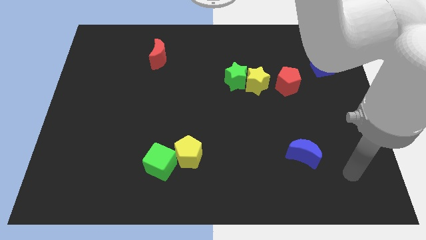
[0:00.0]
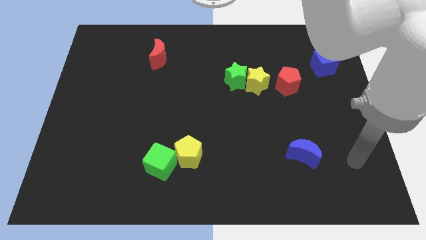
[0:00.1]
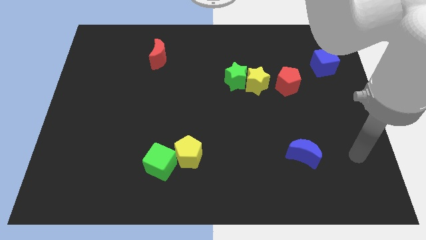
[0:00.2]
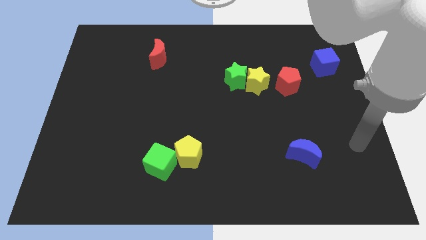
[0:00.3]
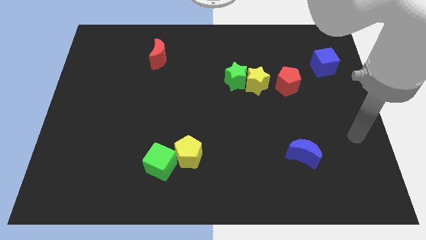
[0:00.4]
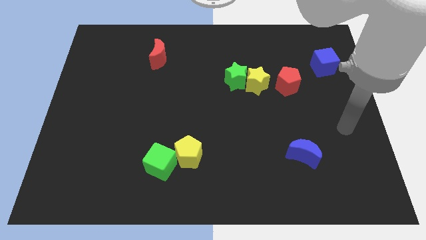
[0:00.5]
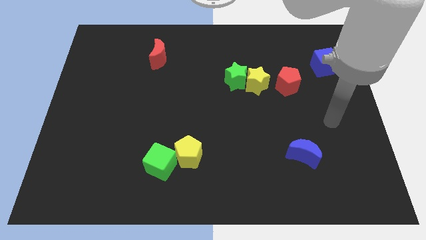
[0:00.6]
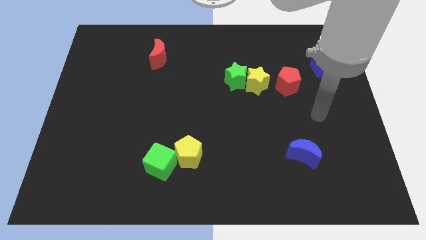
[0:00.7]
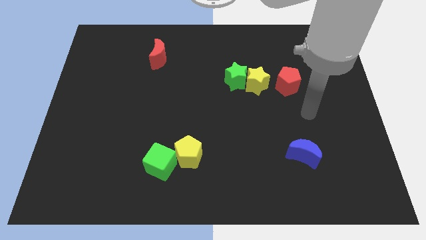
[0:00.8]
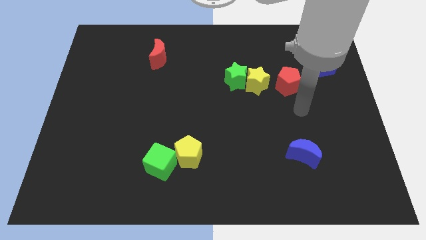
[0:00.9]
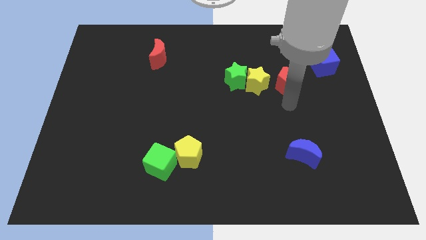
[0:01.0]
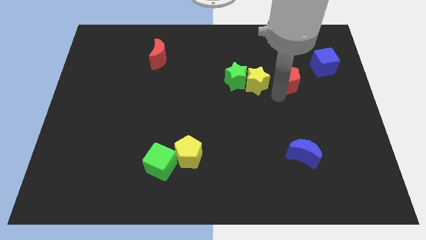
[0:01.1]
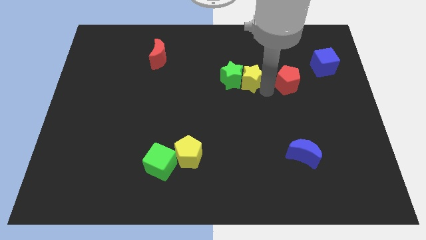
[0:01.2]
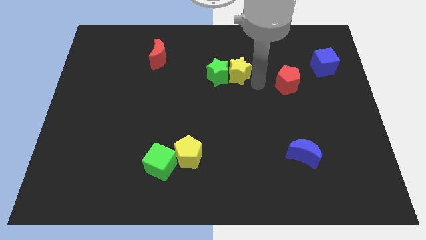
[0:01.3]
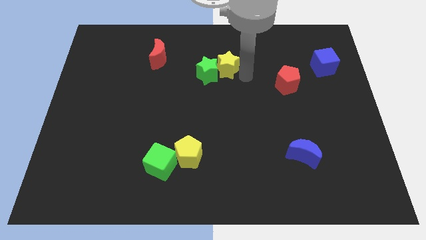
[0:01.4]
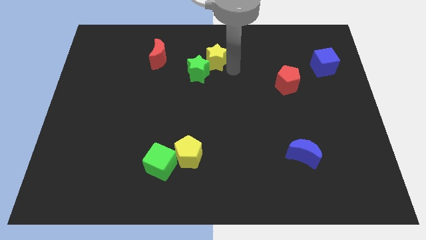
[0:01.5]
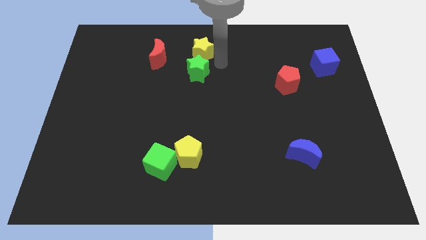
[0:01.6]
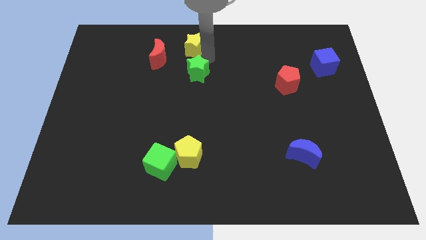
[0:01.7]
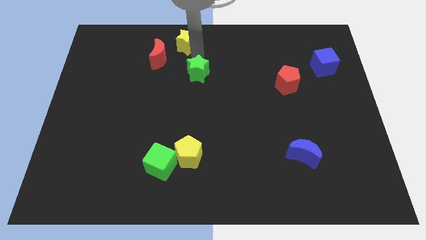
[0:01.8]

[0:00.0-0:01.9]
pull the green star apart from the yellow star

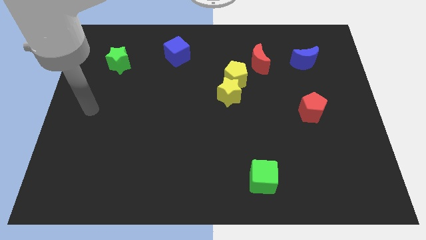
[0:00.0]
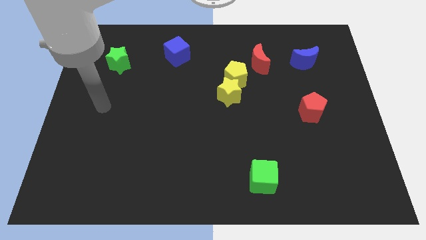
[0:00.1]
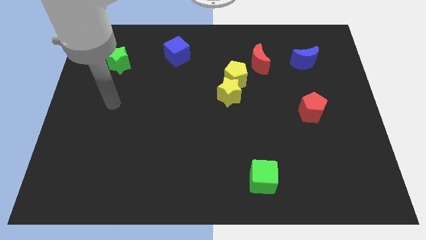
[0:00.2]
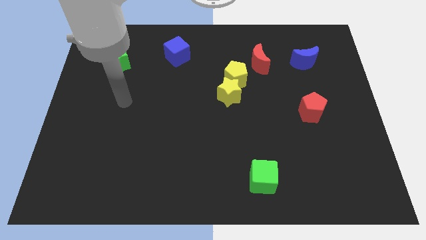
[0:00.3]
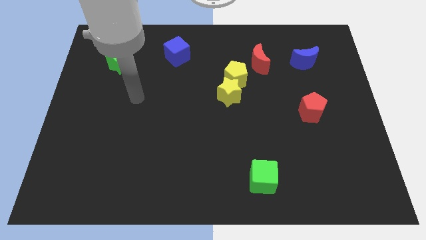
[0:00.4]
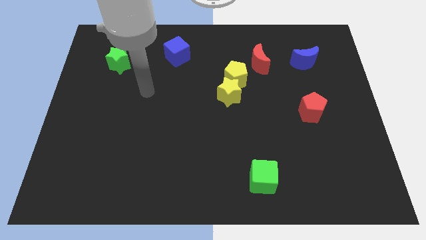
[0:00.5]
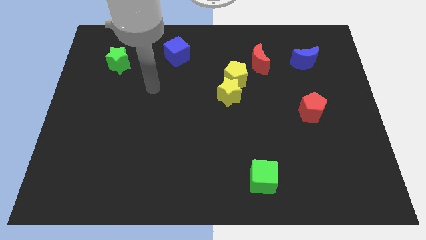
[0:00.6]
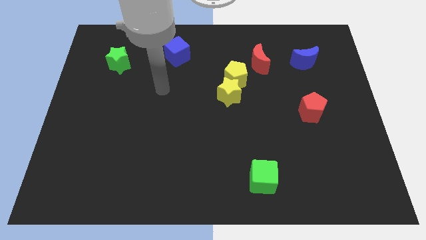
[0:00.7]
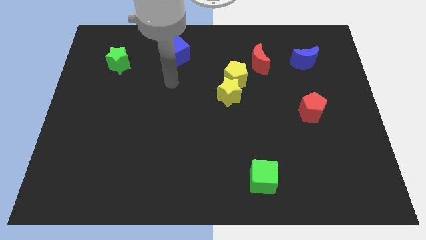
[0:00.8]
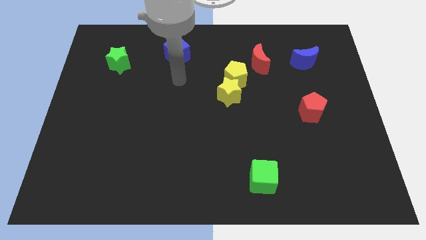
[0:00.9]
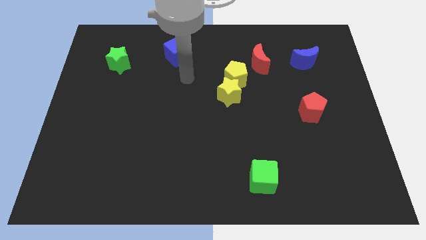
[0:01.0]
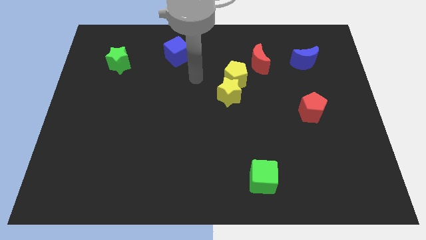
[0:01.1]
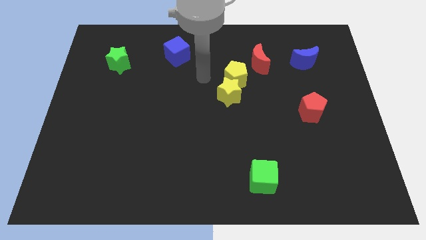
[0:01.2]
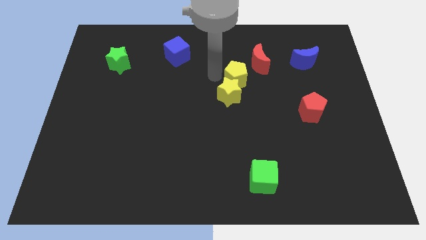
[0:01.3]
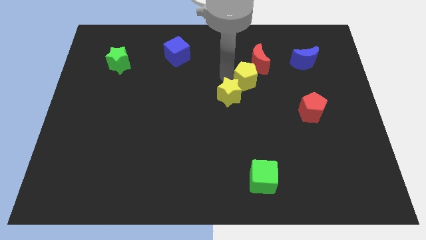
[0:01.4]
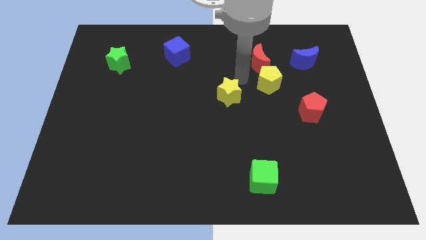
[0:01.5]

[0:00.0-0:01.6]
pull the yellow star apart from the yellow pentagon

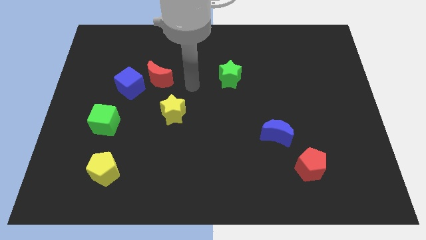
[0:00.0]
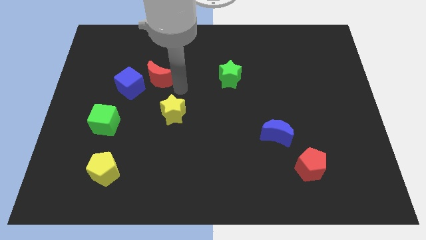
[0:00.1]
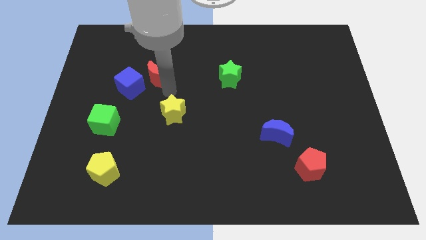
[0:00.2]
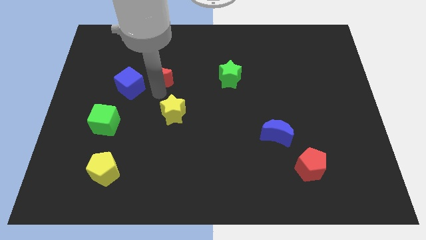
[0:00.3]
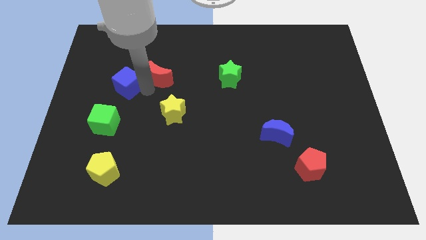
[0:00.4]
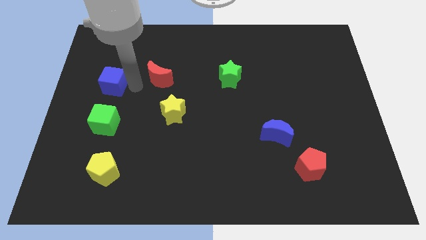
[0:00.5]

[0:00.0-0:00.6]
separate the red moon from the blue cube

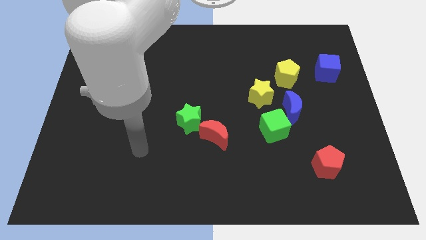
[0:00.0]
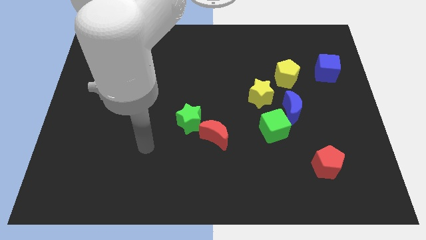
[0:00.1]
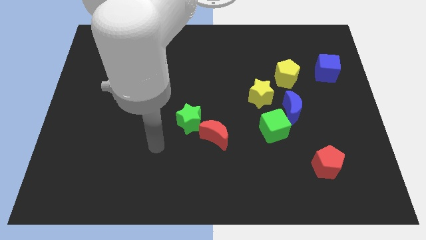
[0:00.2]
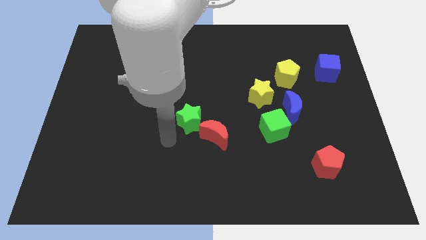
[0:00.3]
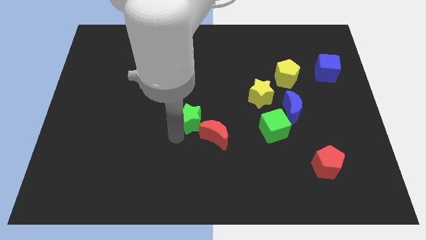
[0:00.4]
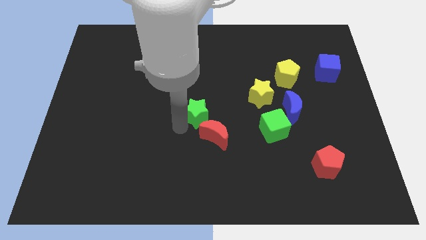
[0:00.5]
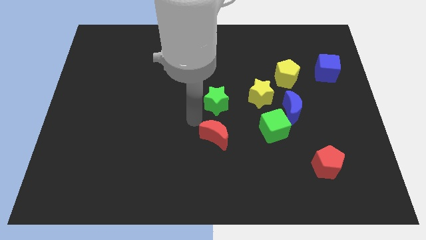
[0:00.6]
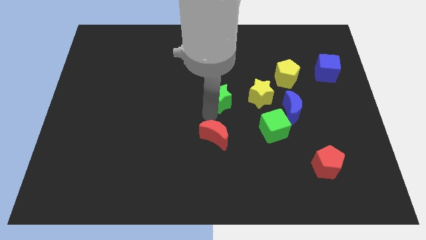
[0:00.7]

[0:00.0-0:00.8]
pull the red moon apart from the green star

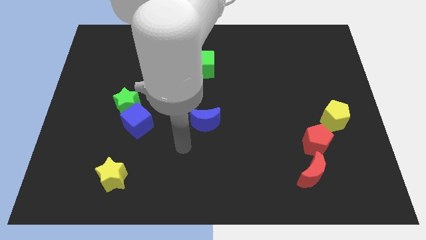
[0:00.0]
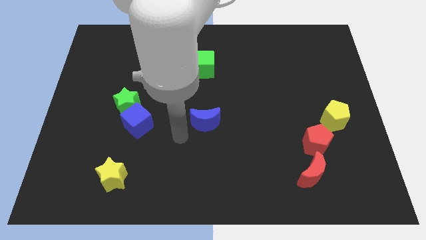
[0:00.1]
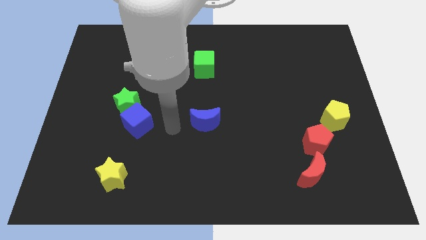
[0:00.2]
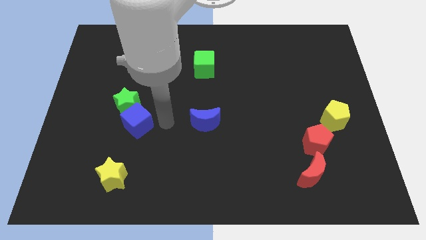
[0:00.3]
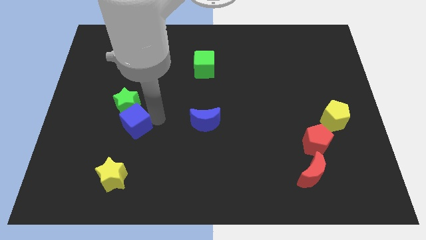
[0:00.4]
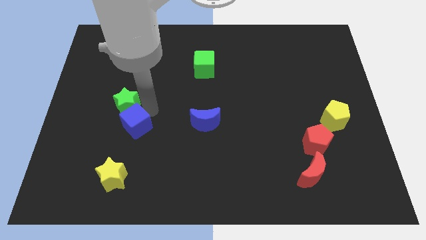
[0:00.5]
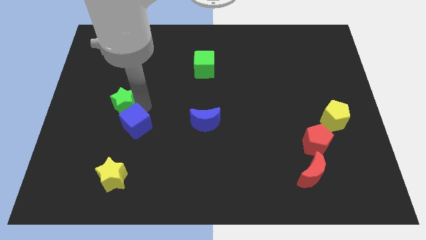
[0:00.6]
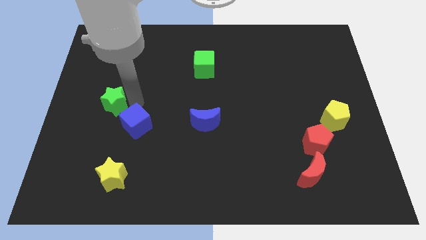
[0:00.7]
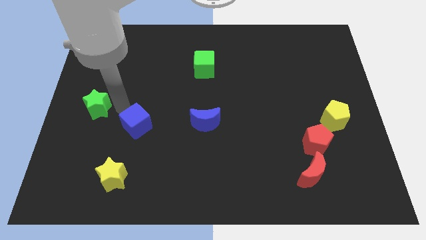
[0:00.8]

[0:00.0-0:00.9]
separate the blue cube from the green star

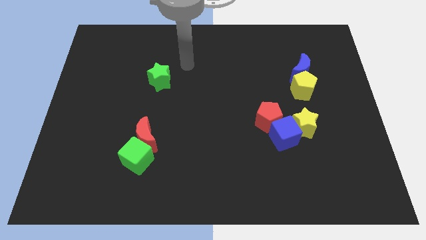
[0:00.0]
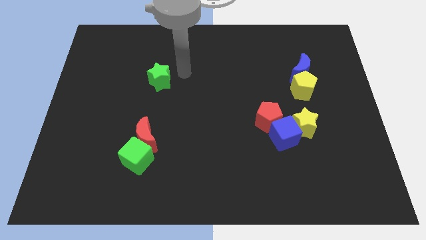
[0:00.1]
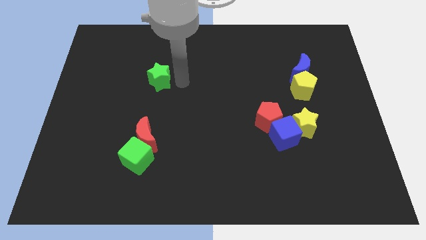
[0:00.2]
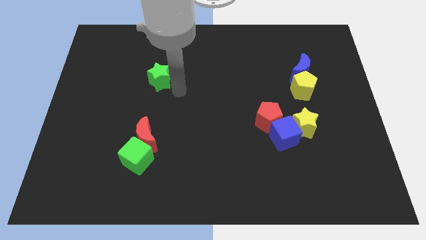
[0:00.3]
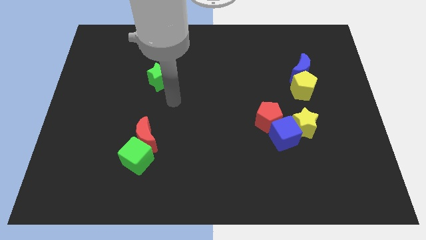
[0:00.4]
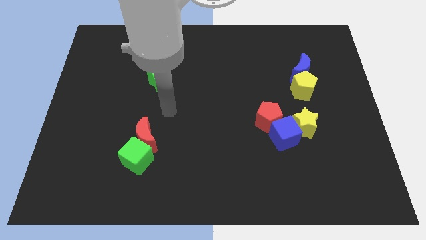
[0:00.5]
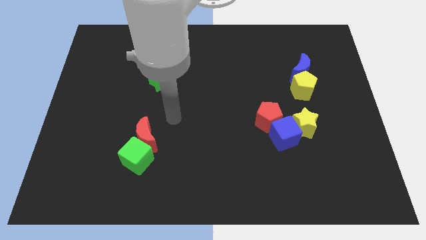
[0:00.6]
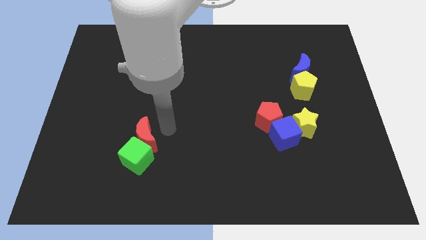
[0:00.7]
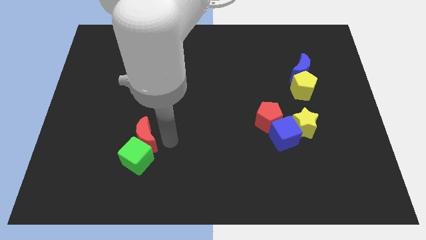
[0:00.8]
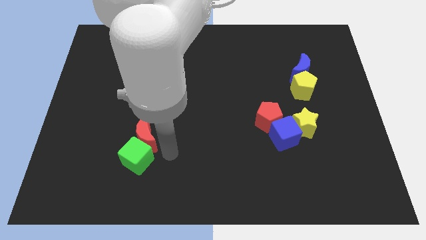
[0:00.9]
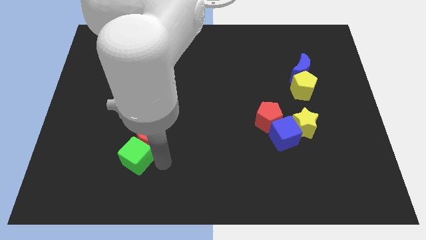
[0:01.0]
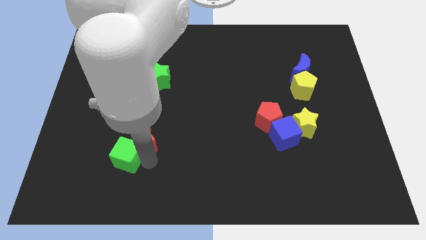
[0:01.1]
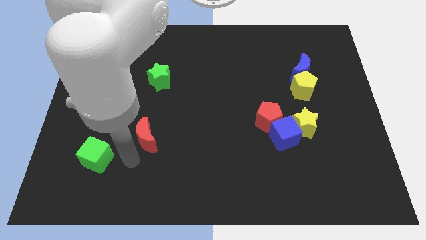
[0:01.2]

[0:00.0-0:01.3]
move the red moon away from the green cube

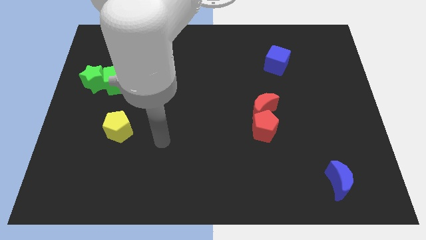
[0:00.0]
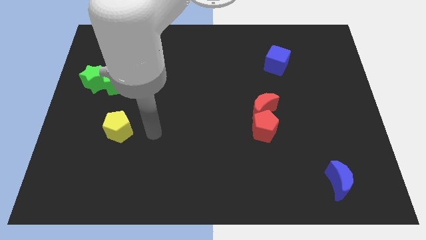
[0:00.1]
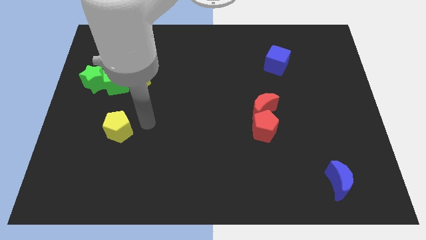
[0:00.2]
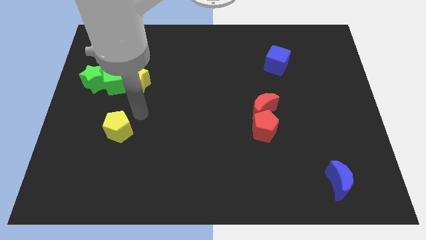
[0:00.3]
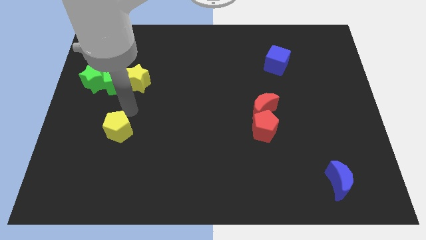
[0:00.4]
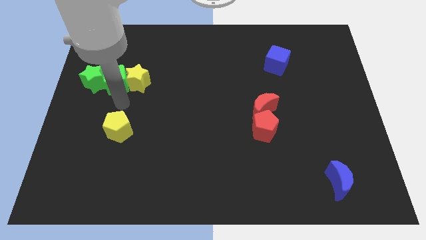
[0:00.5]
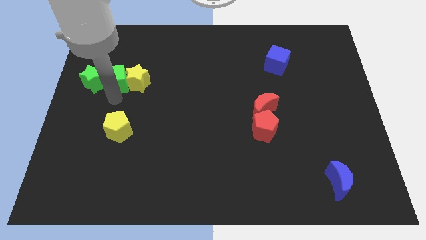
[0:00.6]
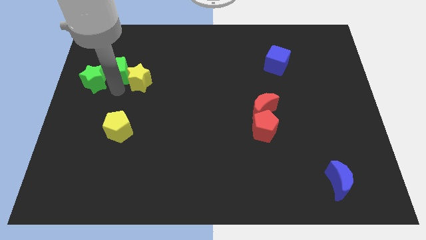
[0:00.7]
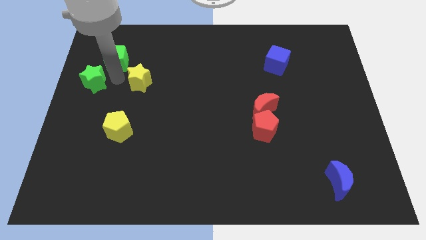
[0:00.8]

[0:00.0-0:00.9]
move the yellow star away from the green cube

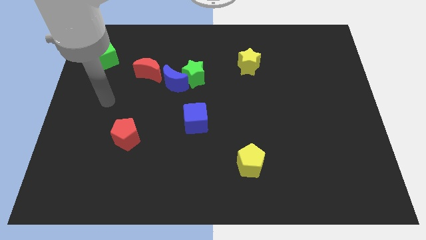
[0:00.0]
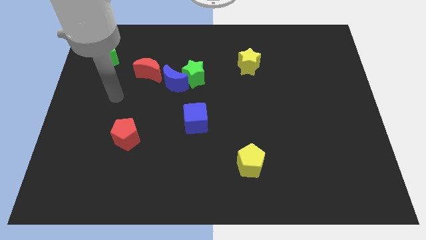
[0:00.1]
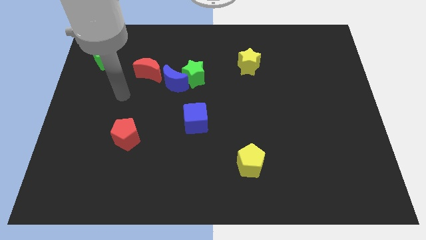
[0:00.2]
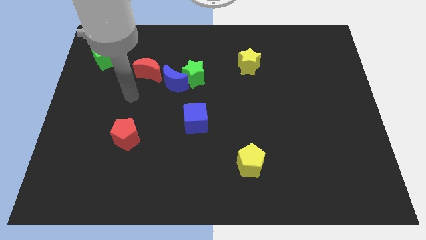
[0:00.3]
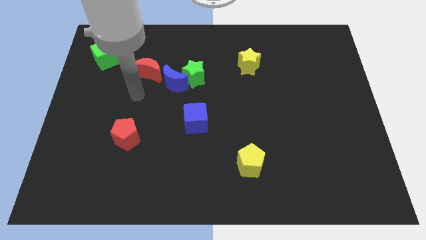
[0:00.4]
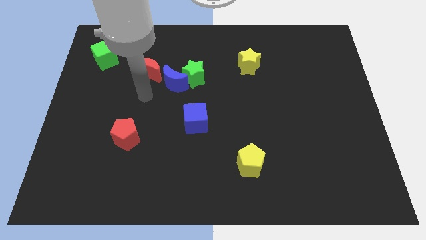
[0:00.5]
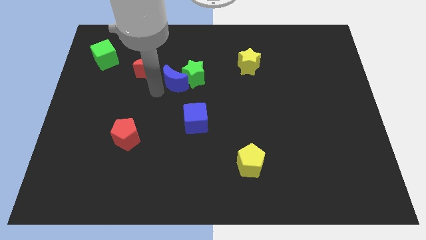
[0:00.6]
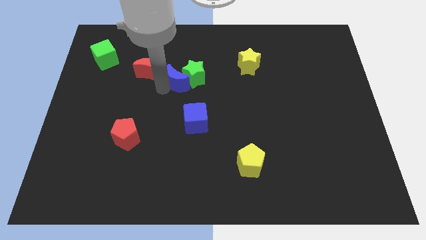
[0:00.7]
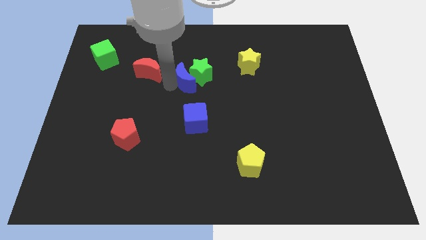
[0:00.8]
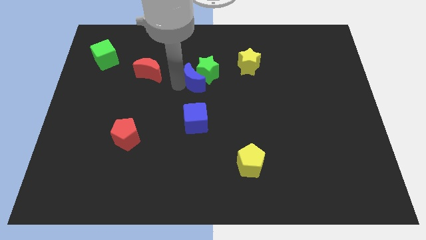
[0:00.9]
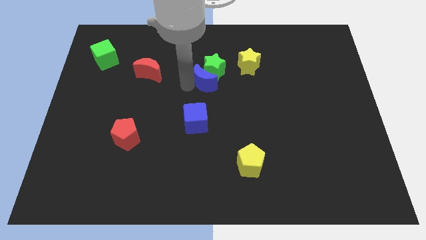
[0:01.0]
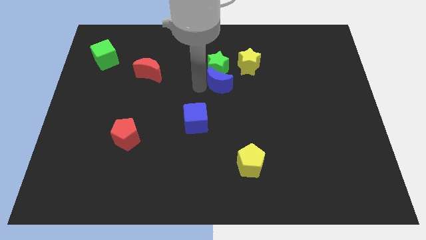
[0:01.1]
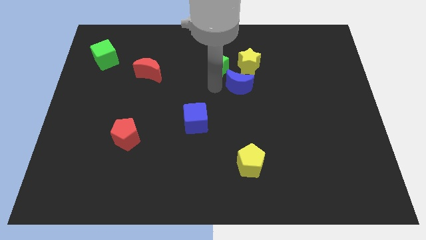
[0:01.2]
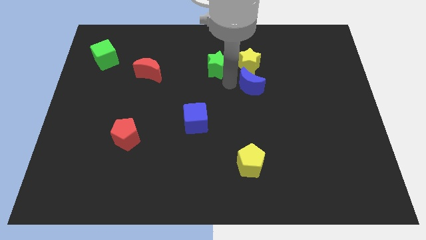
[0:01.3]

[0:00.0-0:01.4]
separate the green star from the blue moon
